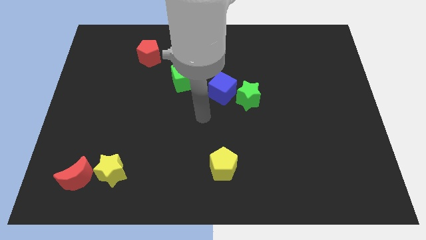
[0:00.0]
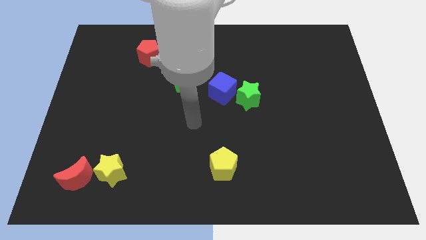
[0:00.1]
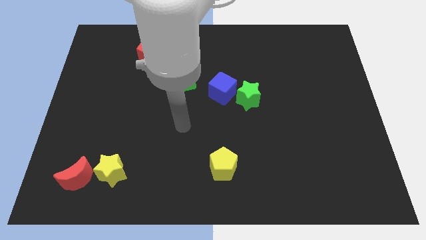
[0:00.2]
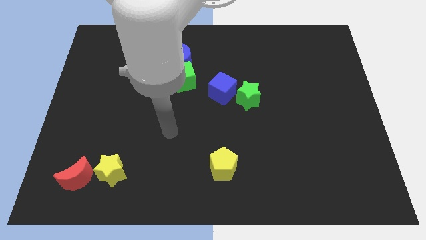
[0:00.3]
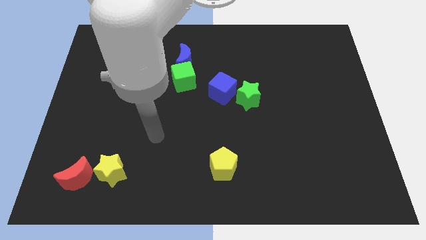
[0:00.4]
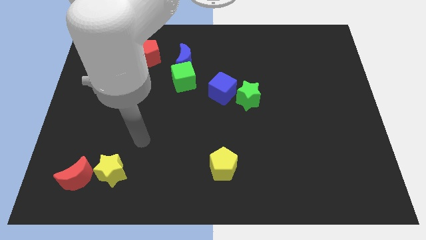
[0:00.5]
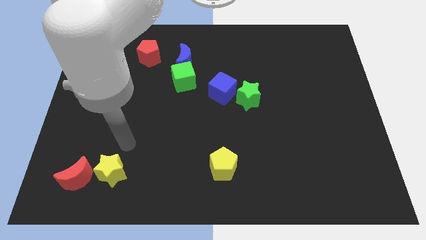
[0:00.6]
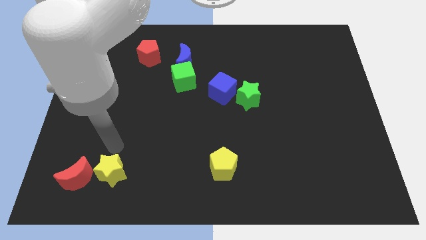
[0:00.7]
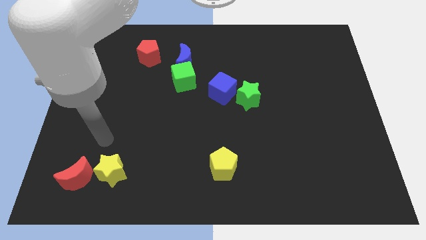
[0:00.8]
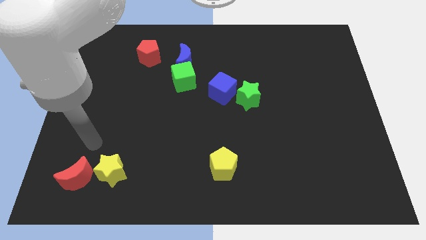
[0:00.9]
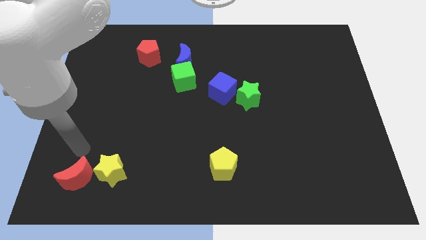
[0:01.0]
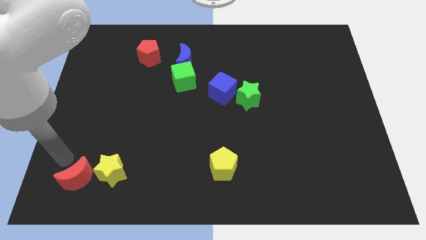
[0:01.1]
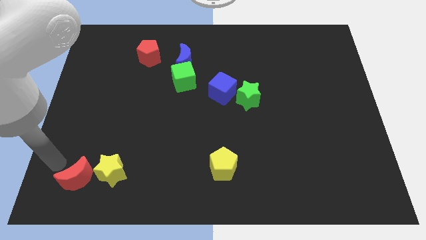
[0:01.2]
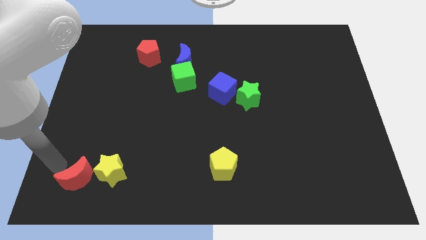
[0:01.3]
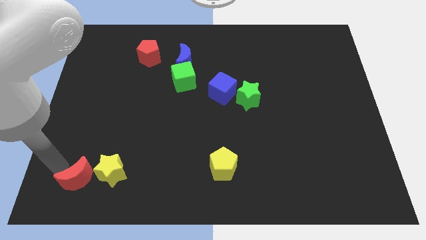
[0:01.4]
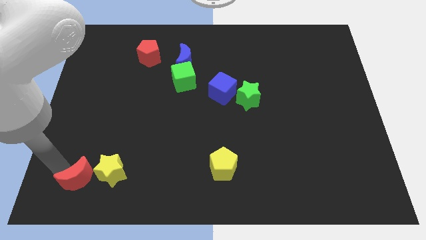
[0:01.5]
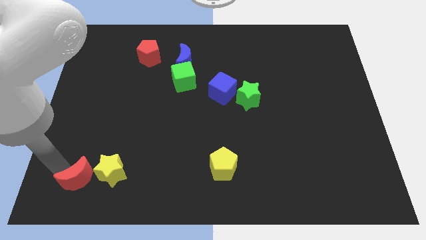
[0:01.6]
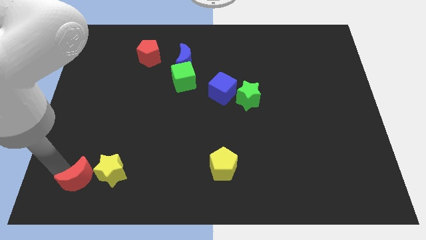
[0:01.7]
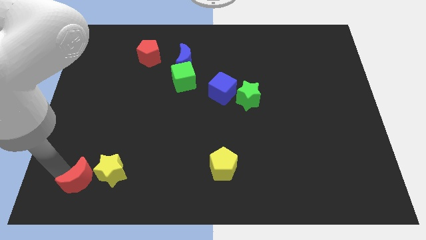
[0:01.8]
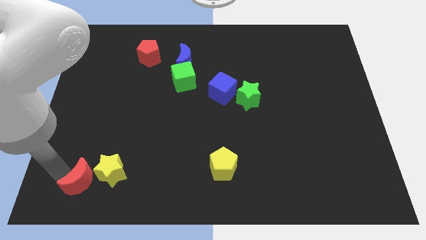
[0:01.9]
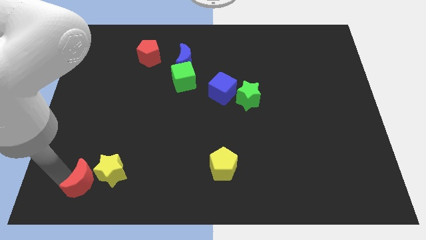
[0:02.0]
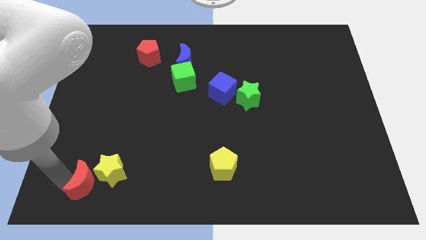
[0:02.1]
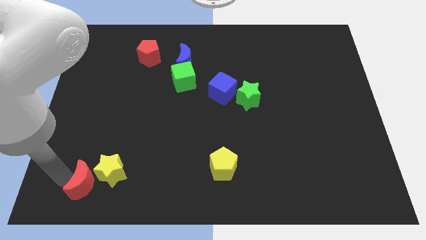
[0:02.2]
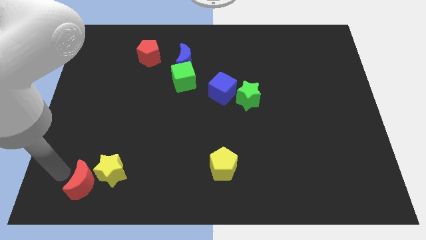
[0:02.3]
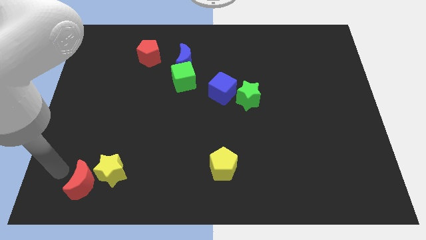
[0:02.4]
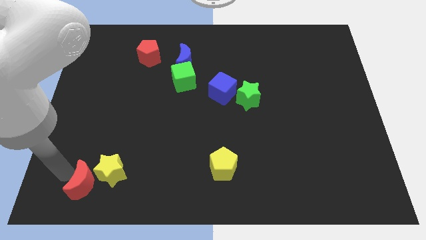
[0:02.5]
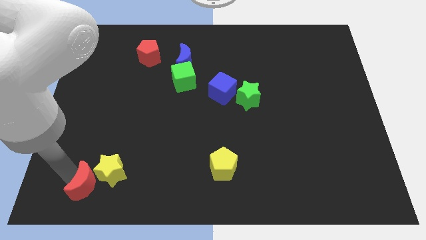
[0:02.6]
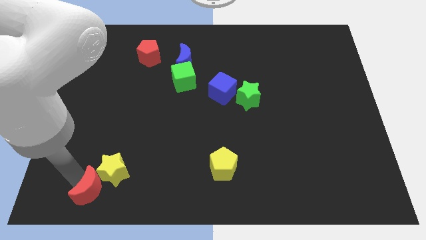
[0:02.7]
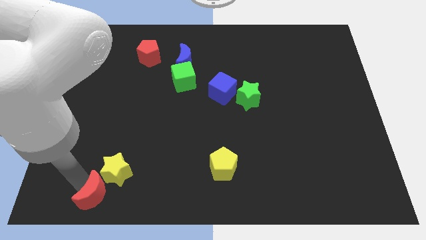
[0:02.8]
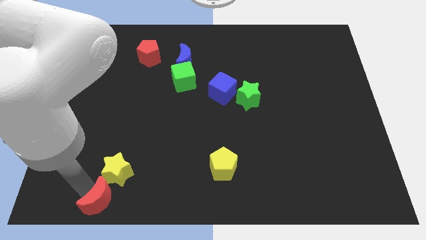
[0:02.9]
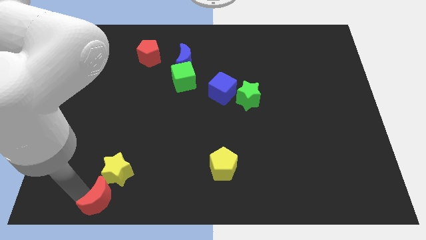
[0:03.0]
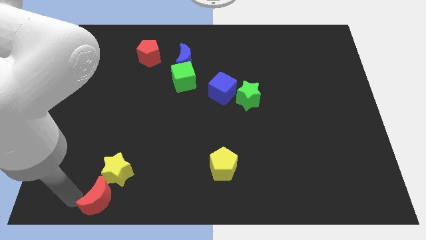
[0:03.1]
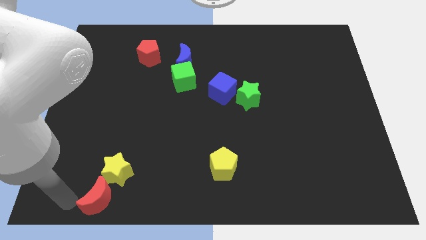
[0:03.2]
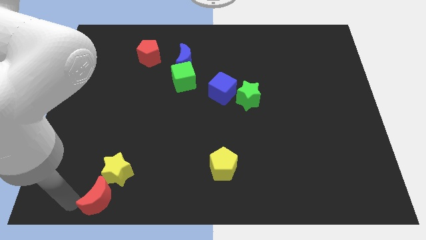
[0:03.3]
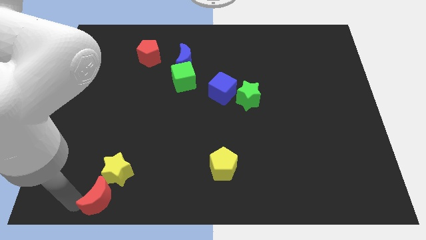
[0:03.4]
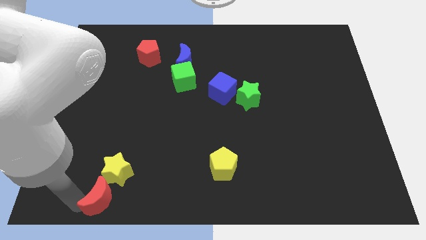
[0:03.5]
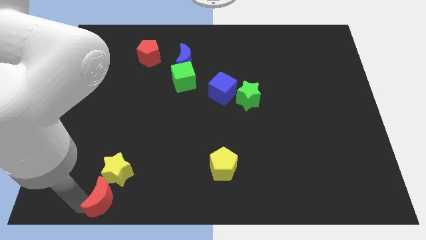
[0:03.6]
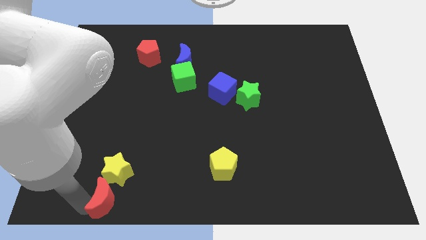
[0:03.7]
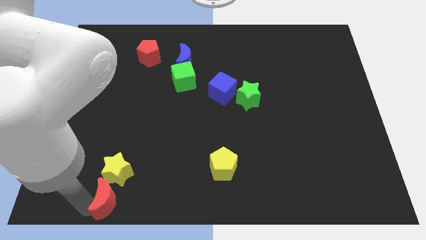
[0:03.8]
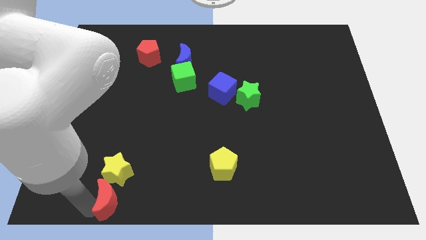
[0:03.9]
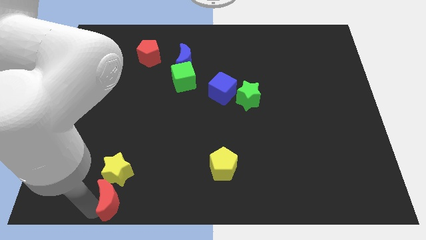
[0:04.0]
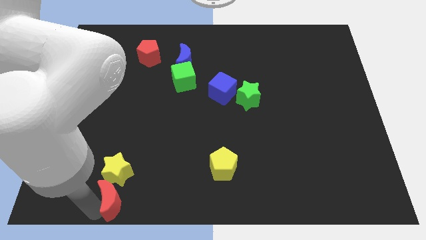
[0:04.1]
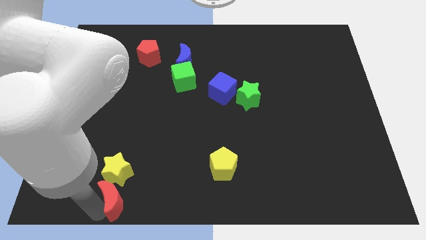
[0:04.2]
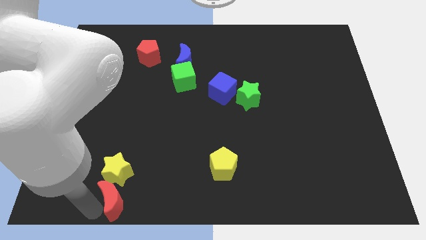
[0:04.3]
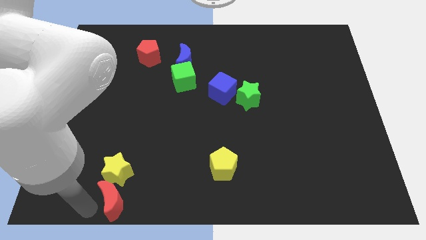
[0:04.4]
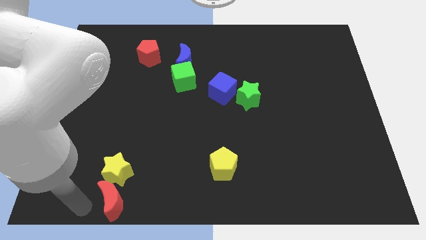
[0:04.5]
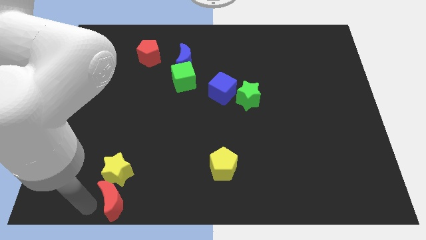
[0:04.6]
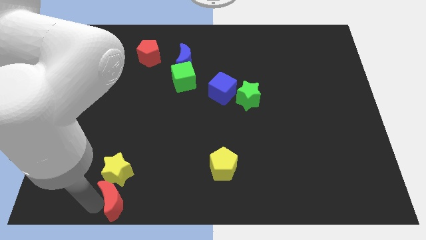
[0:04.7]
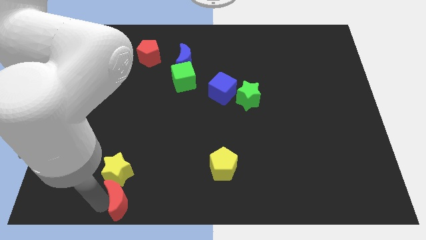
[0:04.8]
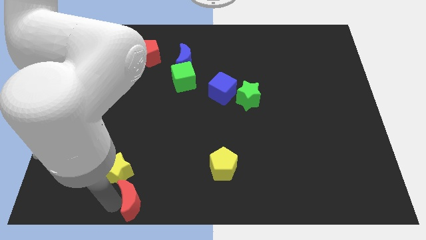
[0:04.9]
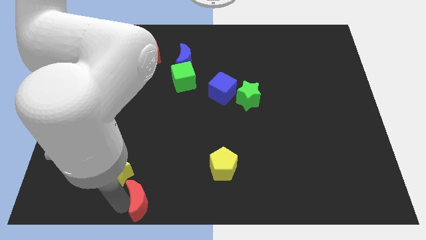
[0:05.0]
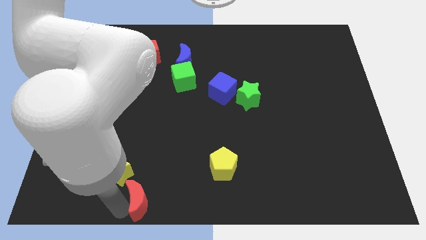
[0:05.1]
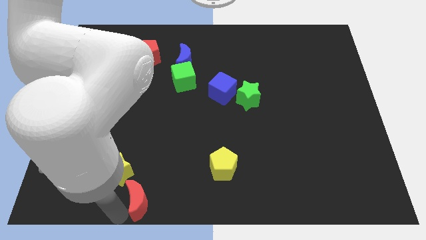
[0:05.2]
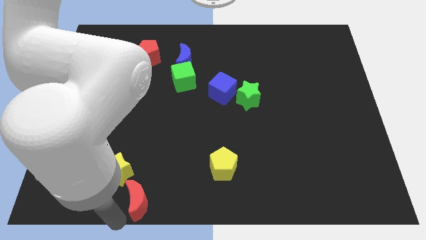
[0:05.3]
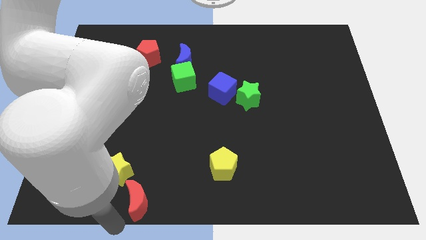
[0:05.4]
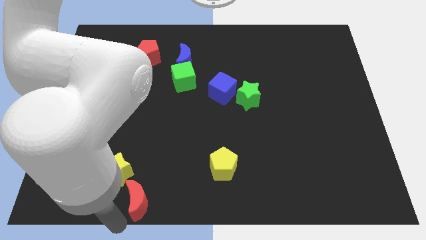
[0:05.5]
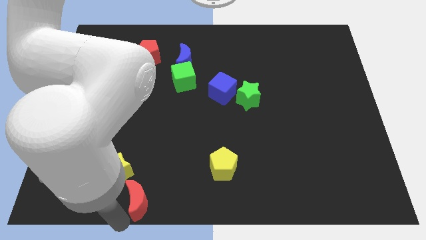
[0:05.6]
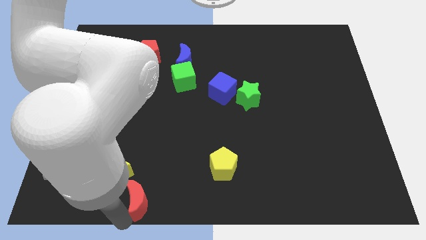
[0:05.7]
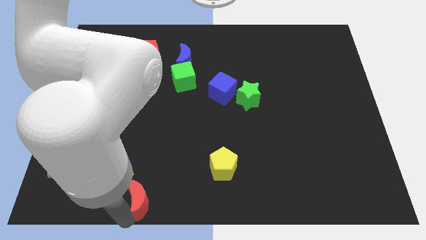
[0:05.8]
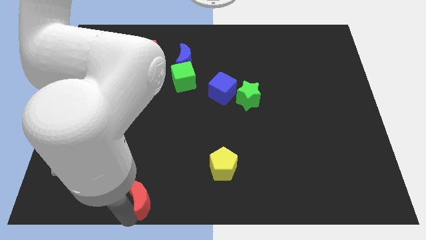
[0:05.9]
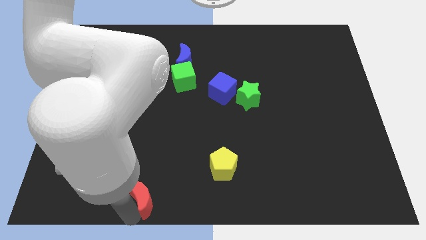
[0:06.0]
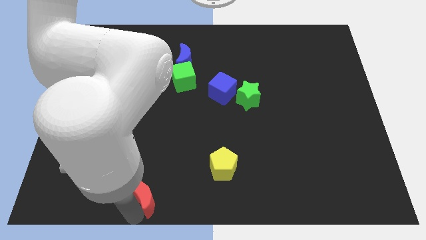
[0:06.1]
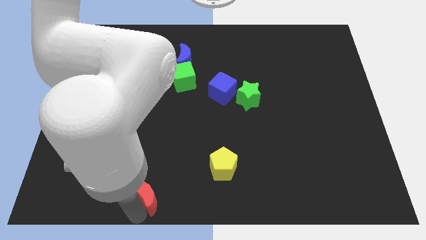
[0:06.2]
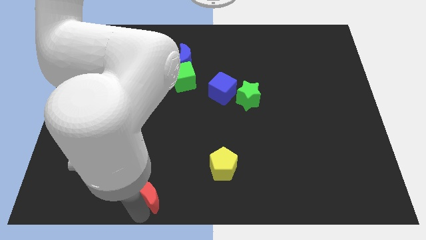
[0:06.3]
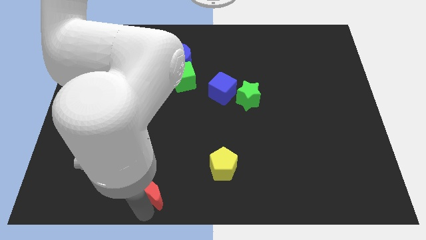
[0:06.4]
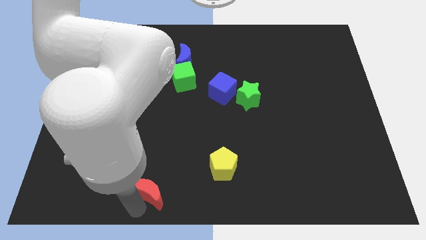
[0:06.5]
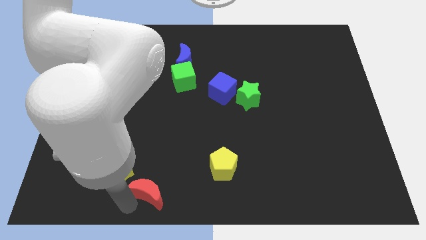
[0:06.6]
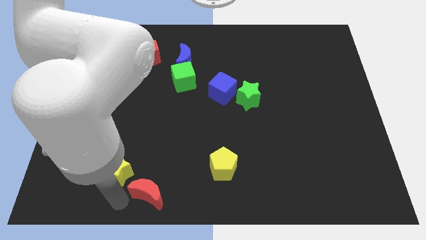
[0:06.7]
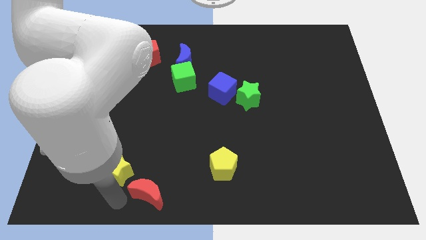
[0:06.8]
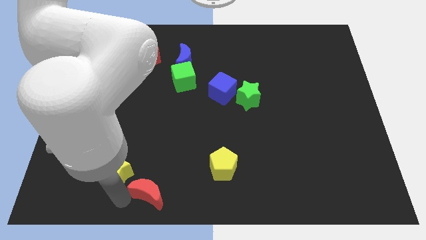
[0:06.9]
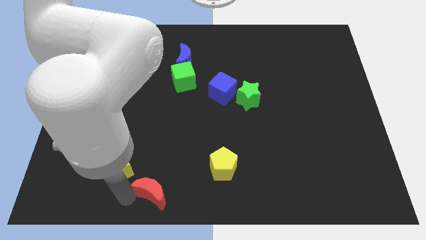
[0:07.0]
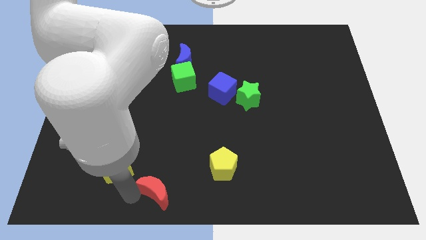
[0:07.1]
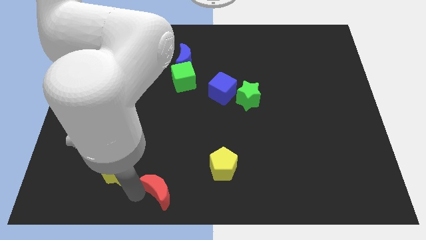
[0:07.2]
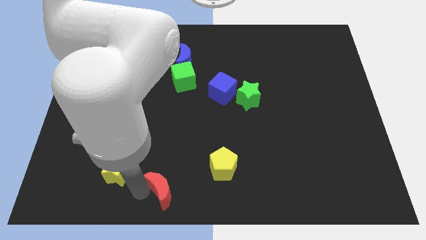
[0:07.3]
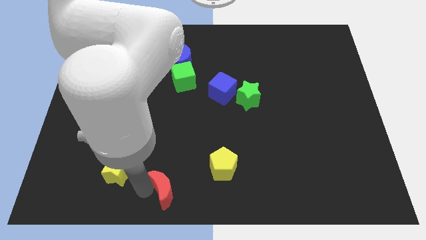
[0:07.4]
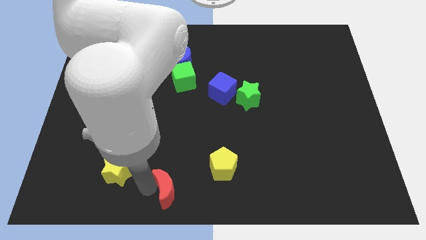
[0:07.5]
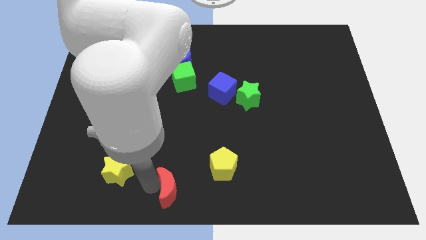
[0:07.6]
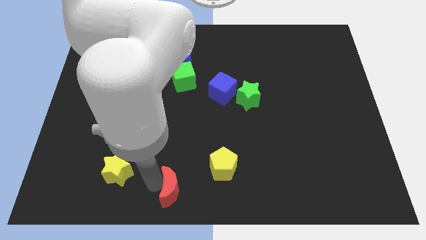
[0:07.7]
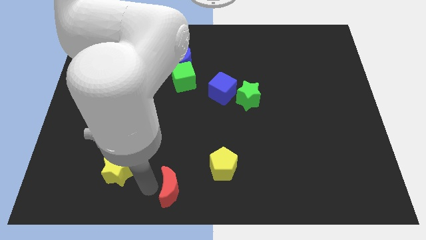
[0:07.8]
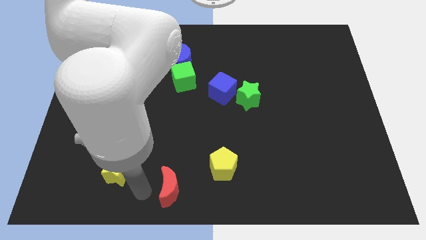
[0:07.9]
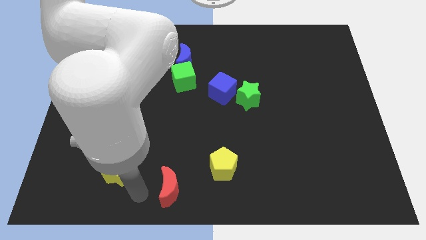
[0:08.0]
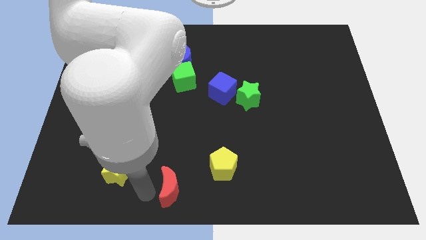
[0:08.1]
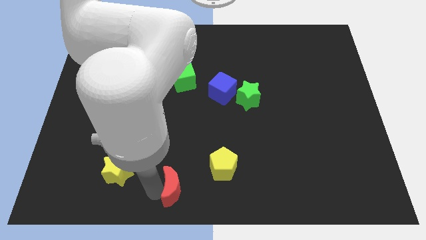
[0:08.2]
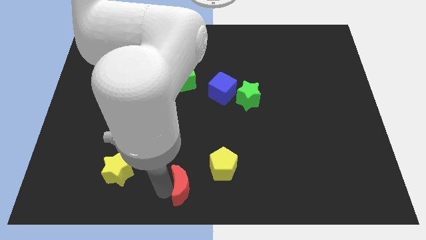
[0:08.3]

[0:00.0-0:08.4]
push the red moon right

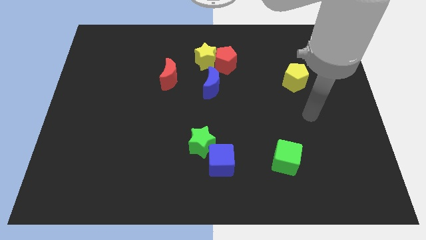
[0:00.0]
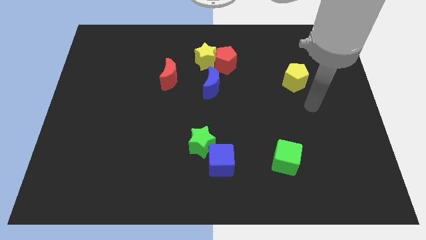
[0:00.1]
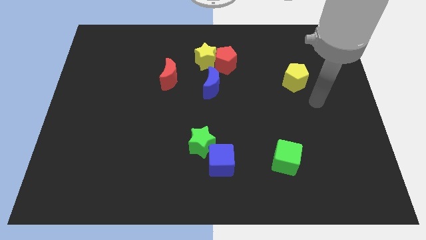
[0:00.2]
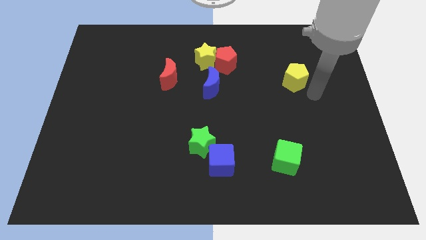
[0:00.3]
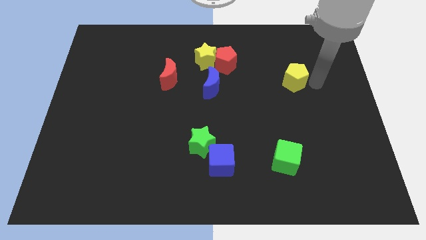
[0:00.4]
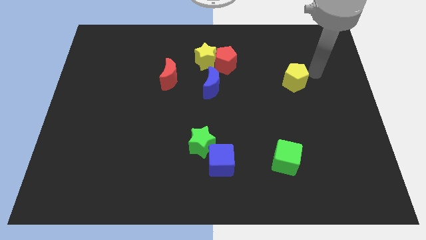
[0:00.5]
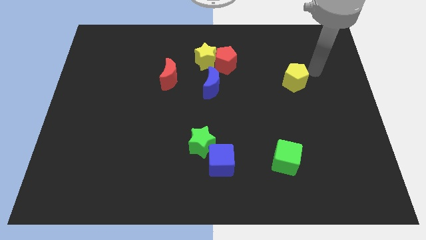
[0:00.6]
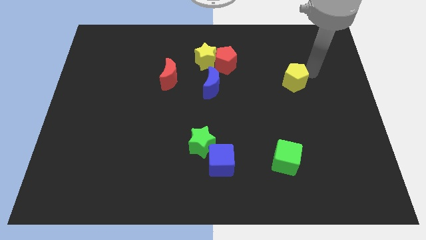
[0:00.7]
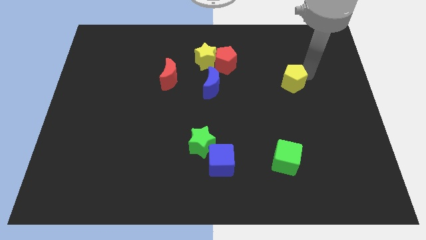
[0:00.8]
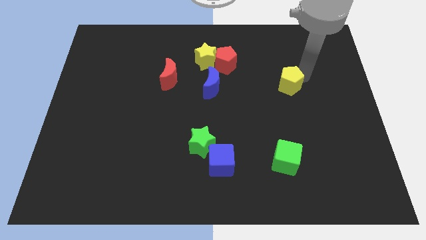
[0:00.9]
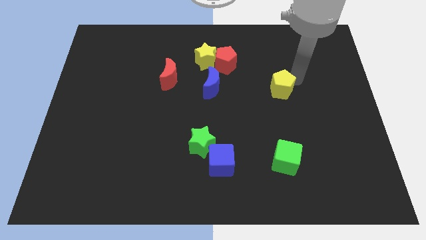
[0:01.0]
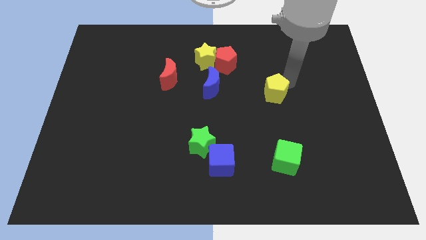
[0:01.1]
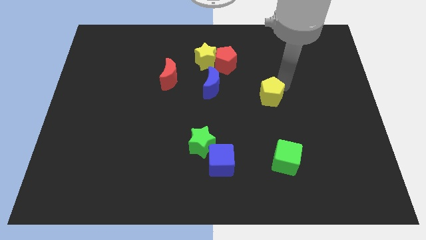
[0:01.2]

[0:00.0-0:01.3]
move the yellow pentagon diagonally down and to the left slightly
